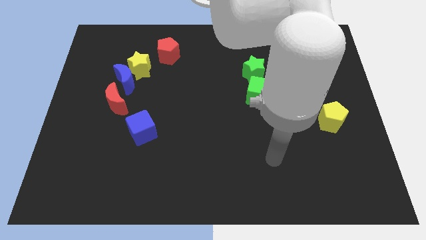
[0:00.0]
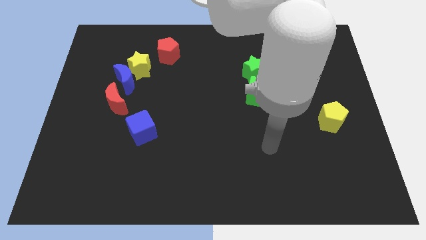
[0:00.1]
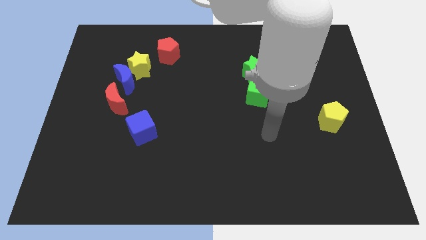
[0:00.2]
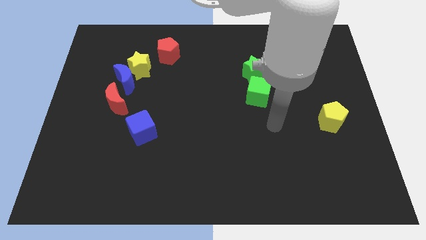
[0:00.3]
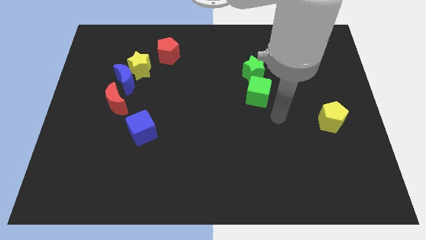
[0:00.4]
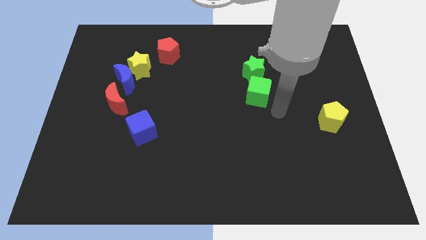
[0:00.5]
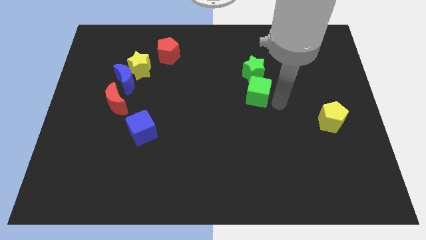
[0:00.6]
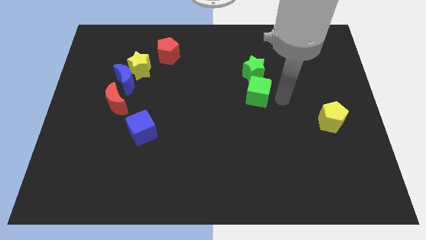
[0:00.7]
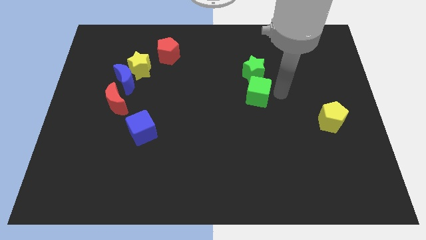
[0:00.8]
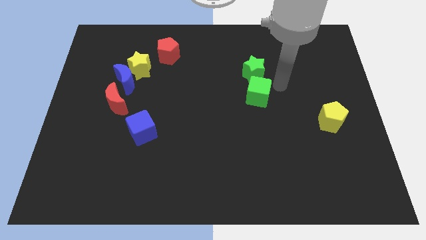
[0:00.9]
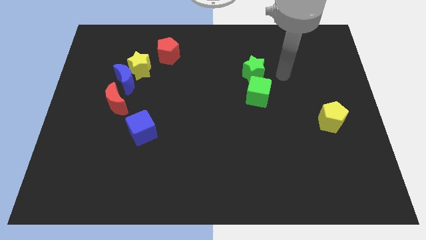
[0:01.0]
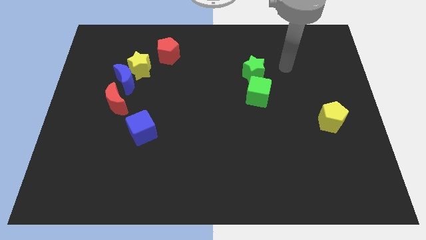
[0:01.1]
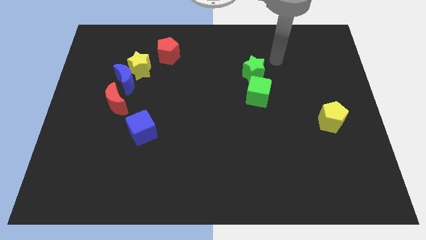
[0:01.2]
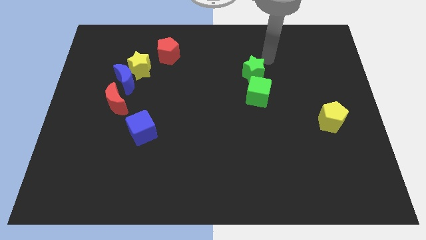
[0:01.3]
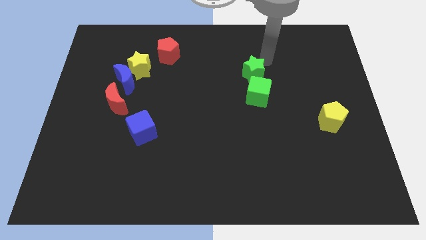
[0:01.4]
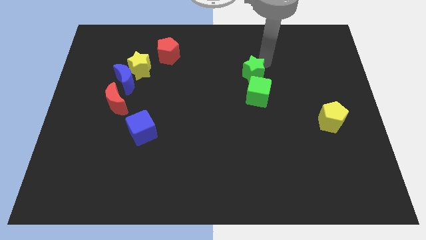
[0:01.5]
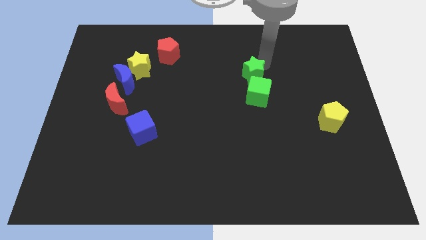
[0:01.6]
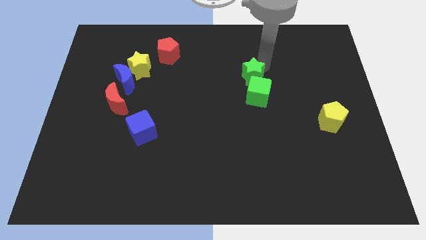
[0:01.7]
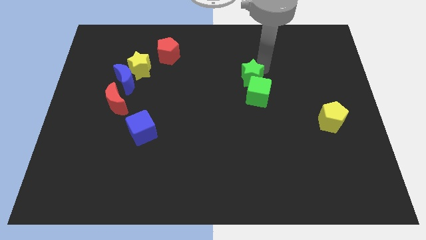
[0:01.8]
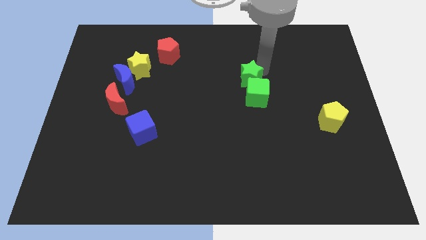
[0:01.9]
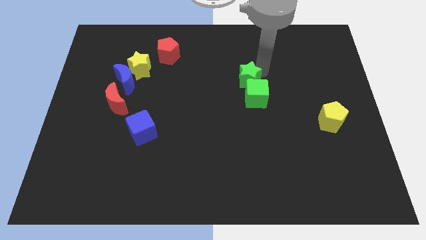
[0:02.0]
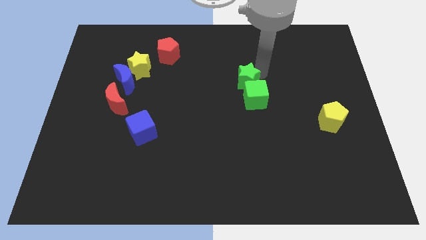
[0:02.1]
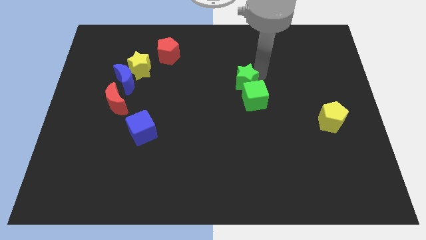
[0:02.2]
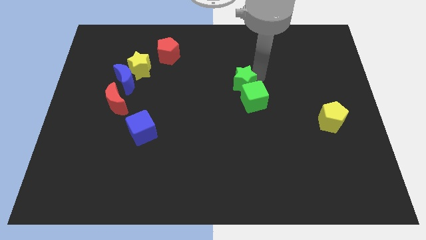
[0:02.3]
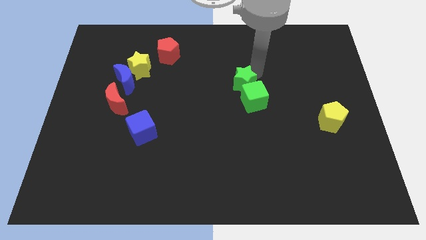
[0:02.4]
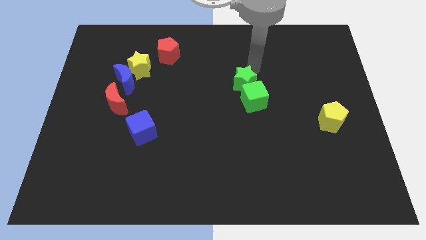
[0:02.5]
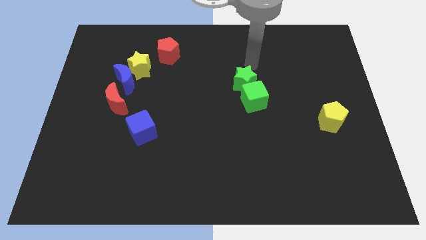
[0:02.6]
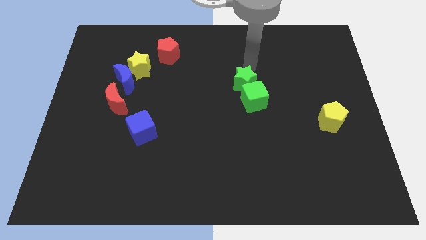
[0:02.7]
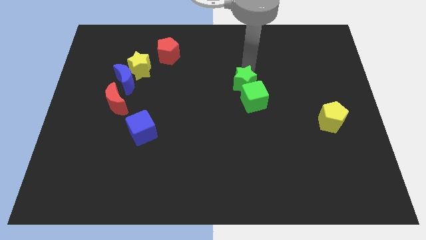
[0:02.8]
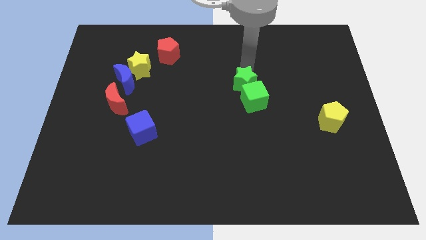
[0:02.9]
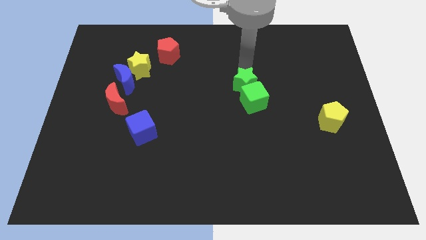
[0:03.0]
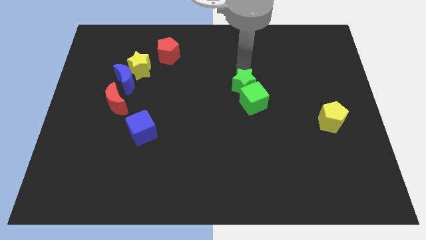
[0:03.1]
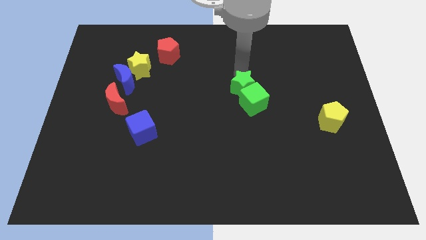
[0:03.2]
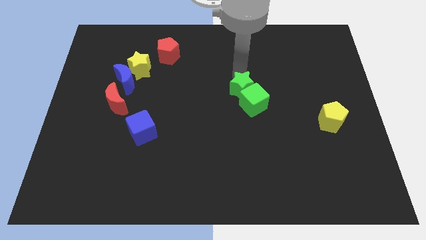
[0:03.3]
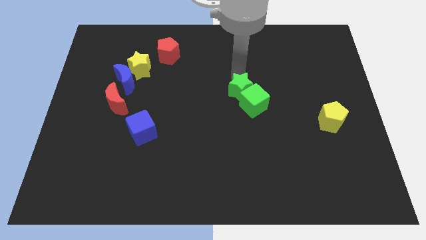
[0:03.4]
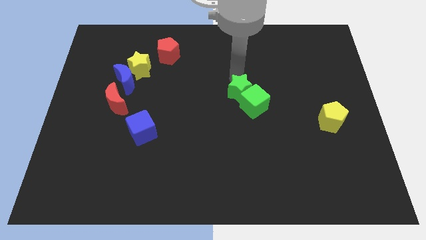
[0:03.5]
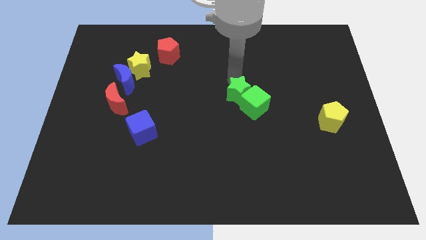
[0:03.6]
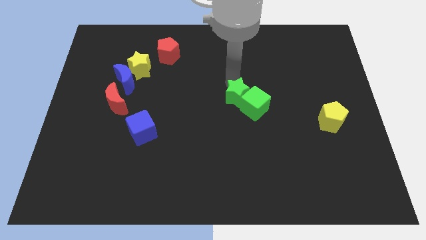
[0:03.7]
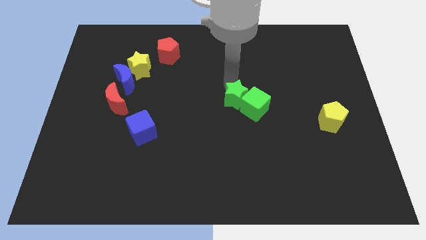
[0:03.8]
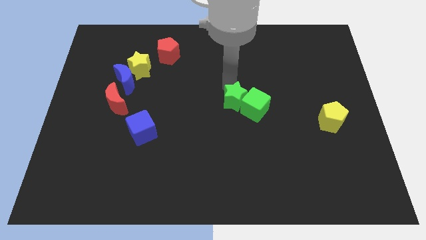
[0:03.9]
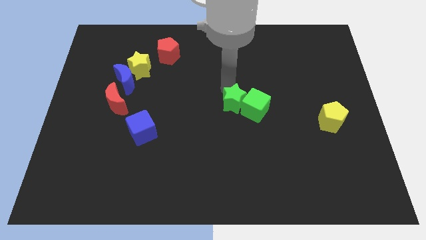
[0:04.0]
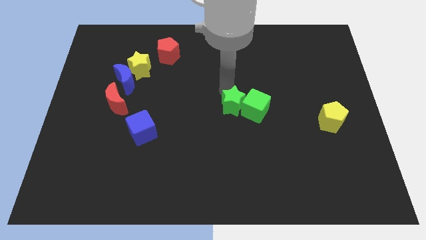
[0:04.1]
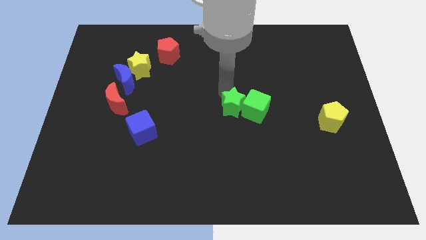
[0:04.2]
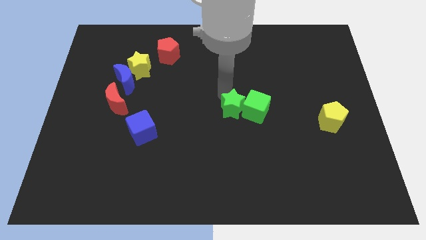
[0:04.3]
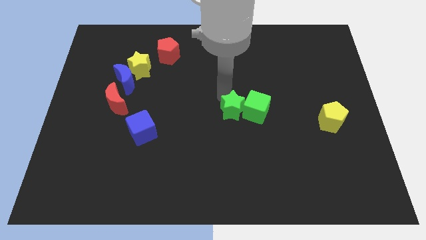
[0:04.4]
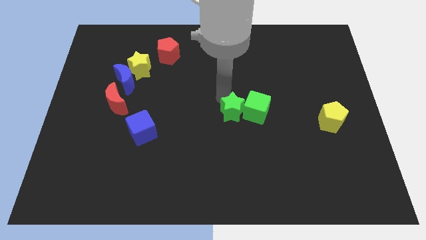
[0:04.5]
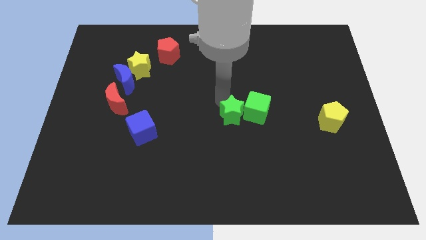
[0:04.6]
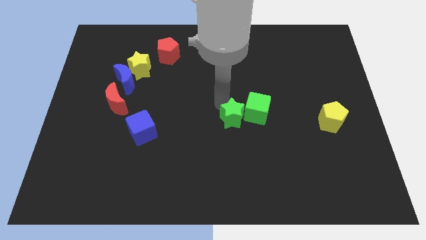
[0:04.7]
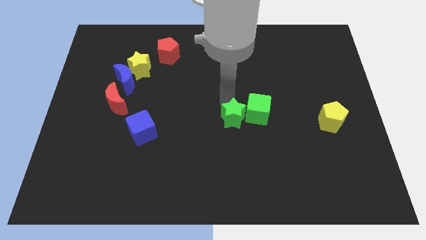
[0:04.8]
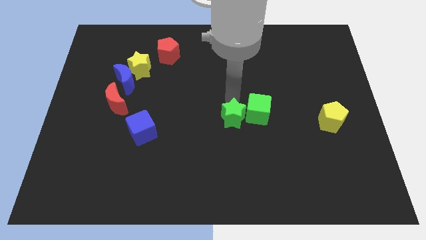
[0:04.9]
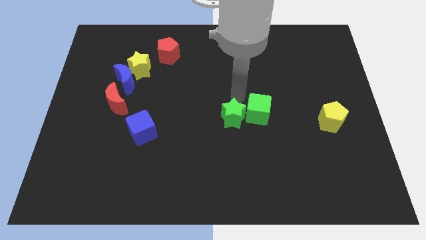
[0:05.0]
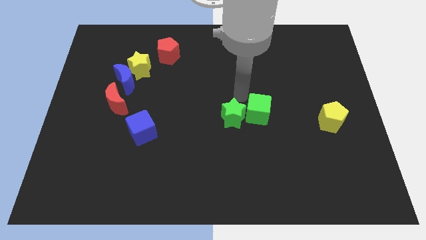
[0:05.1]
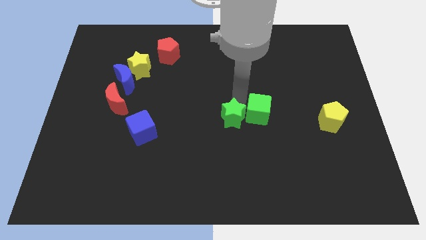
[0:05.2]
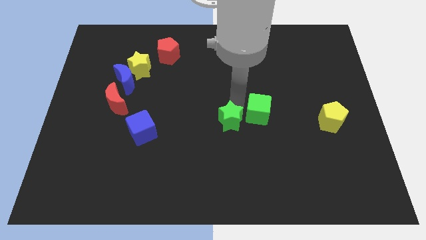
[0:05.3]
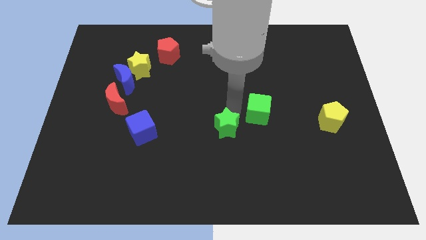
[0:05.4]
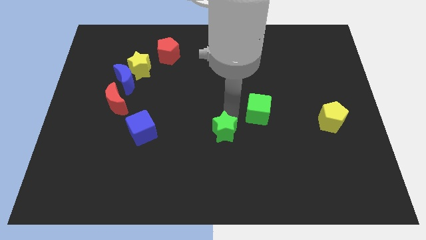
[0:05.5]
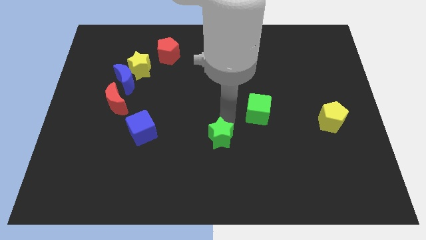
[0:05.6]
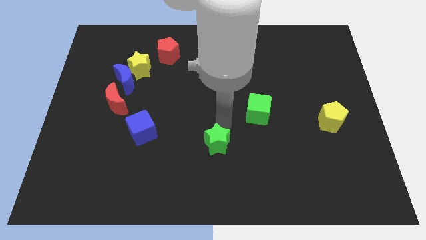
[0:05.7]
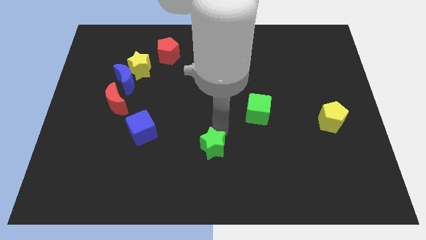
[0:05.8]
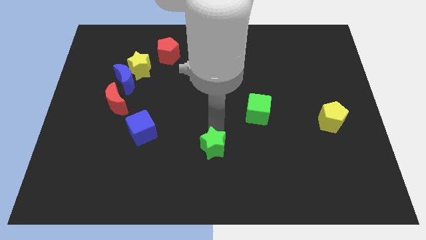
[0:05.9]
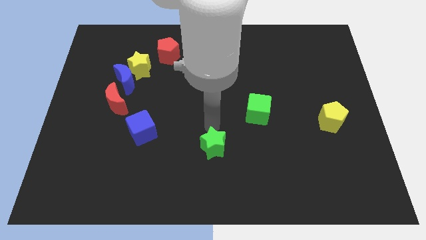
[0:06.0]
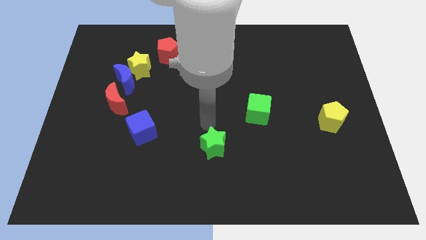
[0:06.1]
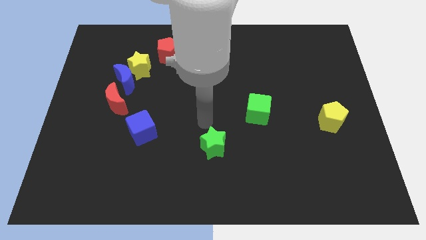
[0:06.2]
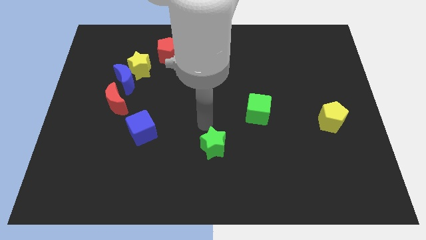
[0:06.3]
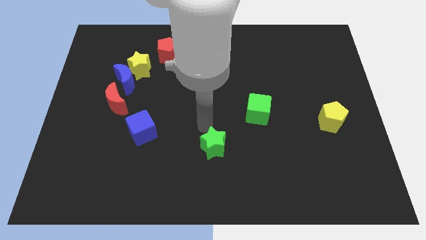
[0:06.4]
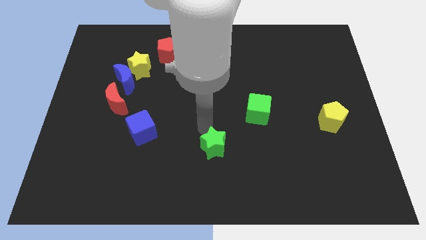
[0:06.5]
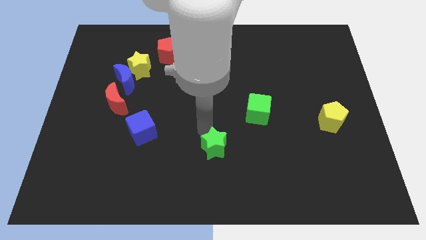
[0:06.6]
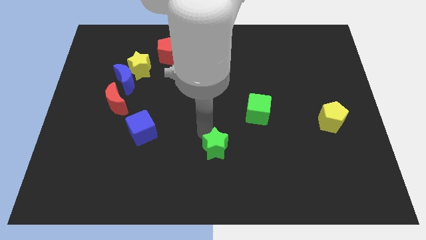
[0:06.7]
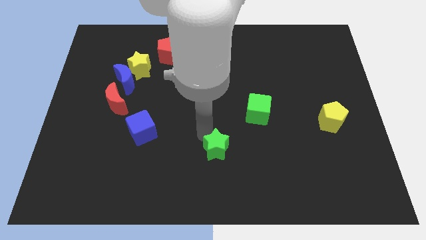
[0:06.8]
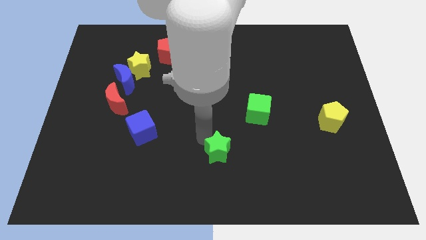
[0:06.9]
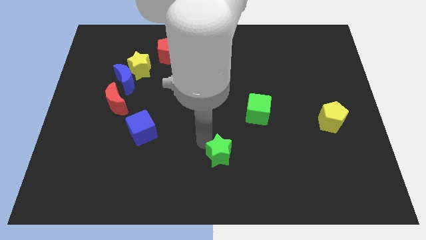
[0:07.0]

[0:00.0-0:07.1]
slide the green star to the bottom side
